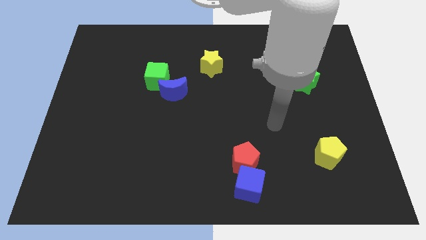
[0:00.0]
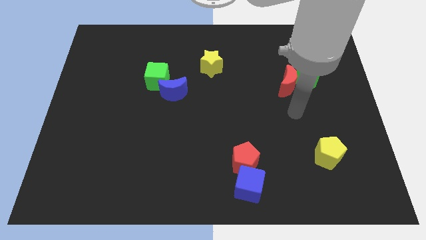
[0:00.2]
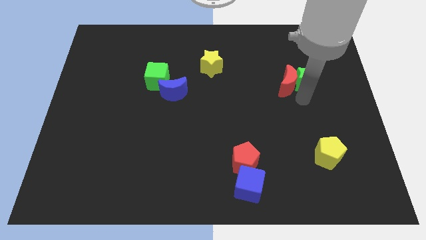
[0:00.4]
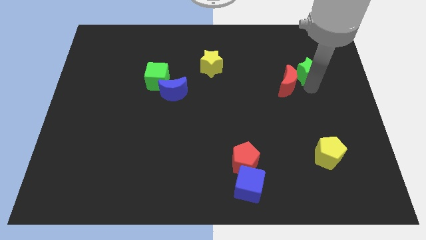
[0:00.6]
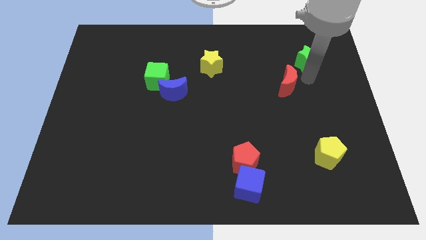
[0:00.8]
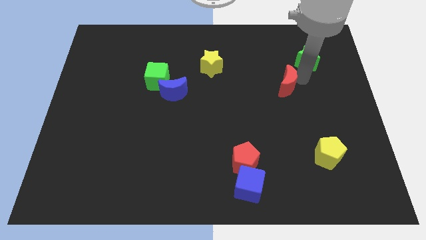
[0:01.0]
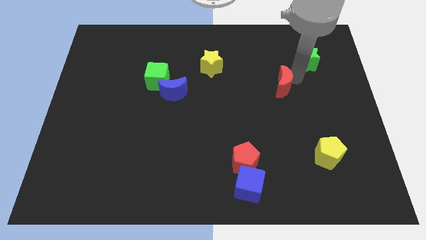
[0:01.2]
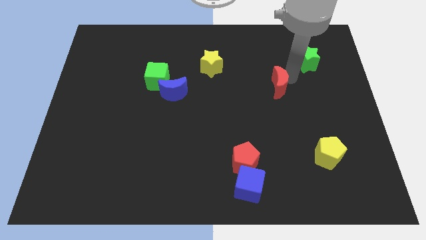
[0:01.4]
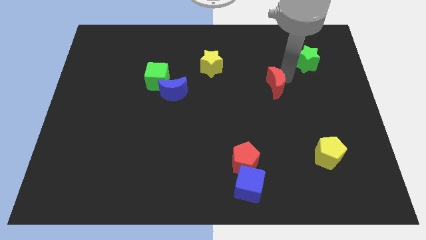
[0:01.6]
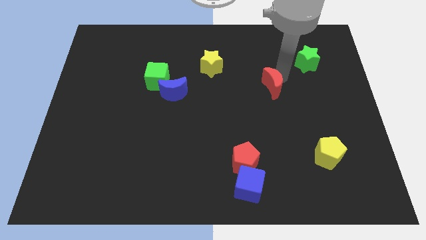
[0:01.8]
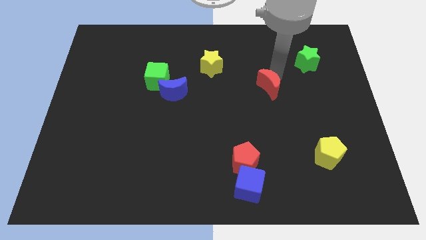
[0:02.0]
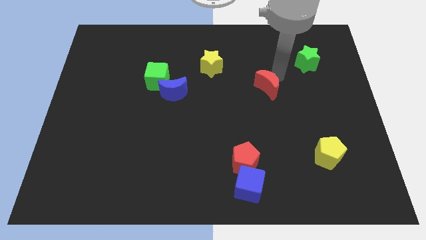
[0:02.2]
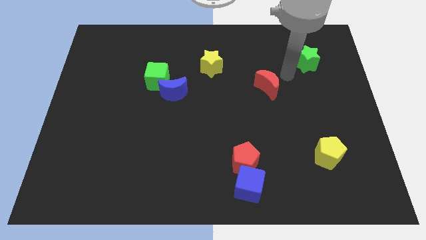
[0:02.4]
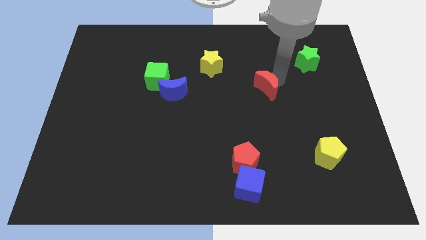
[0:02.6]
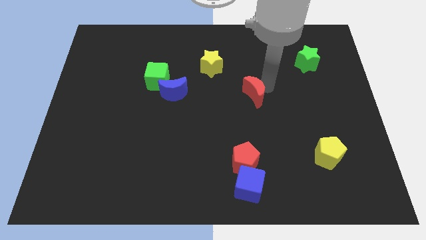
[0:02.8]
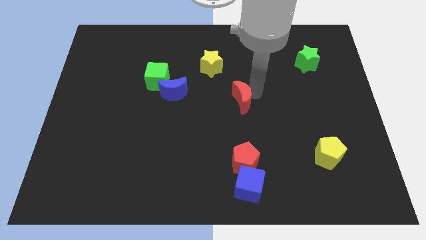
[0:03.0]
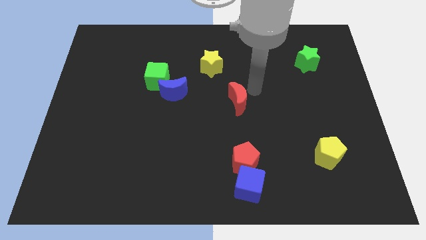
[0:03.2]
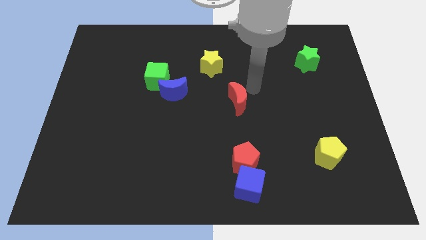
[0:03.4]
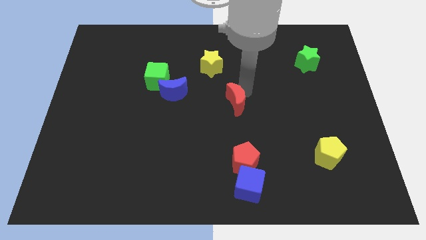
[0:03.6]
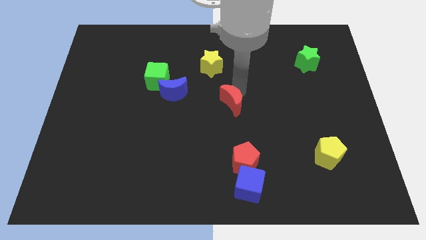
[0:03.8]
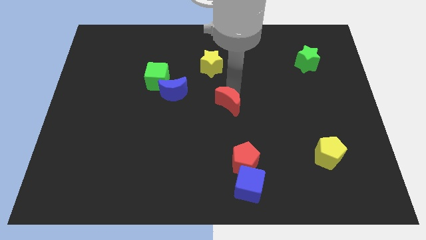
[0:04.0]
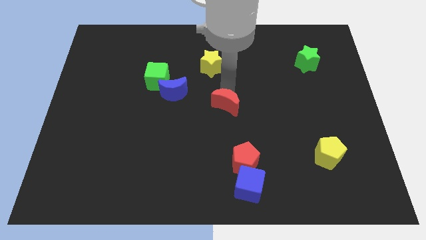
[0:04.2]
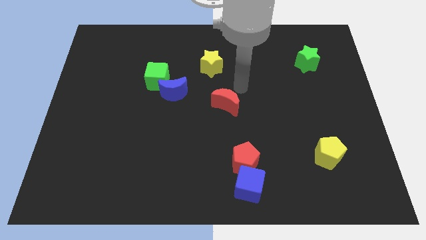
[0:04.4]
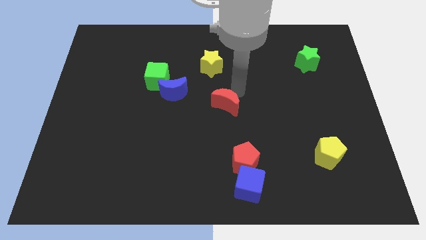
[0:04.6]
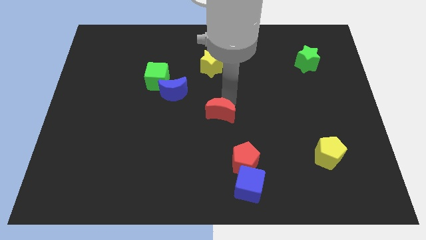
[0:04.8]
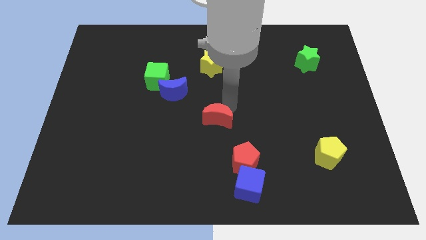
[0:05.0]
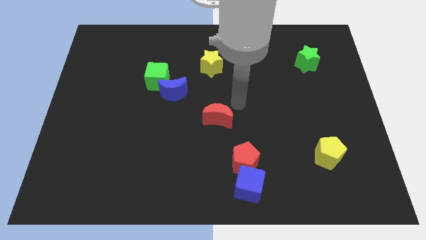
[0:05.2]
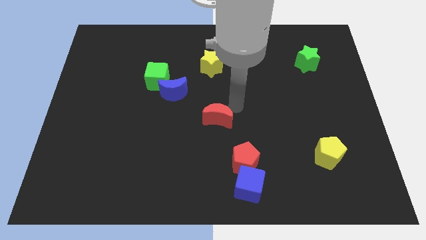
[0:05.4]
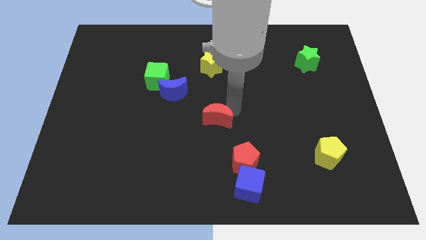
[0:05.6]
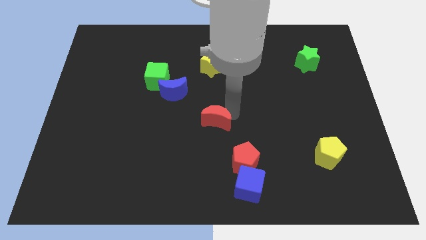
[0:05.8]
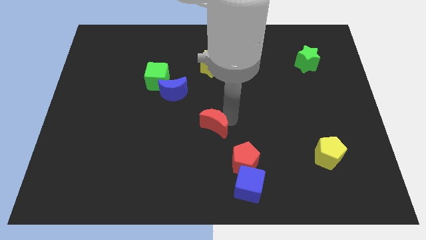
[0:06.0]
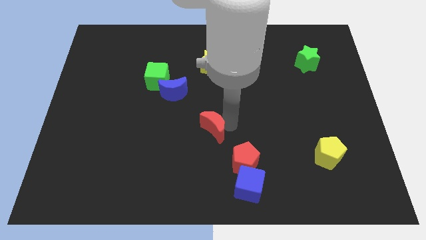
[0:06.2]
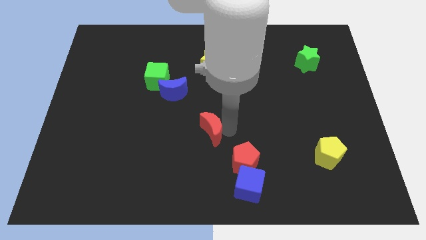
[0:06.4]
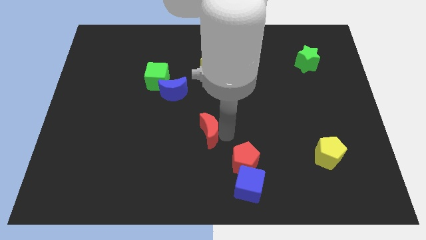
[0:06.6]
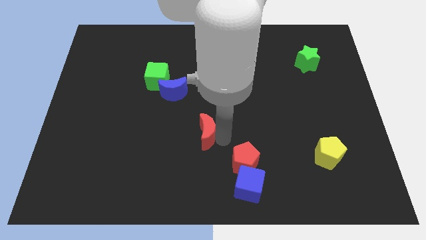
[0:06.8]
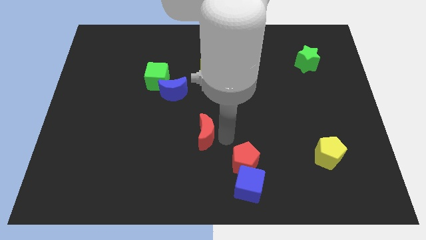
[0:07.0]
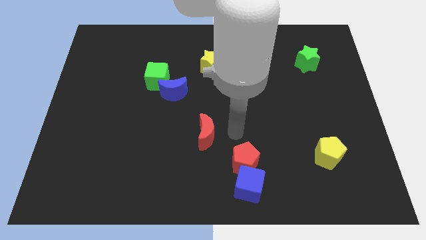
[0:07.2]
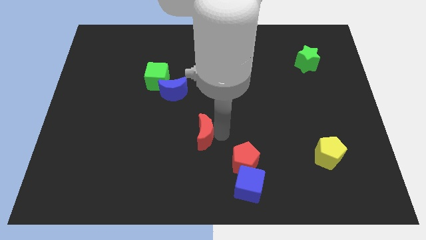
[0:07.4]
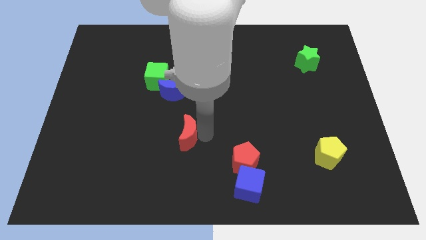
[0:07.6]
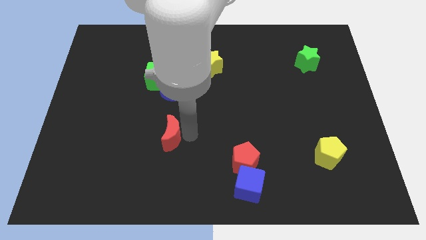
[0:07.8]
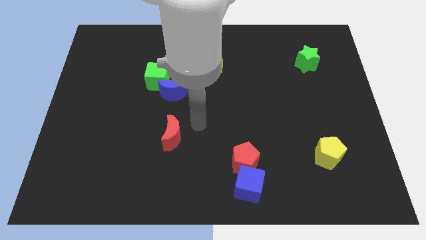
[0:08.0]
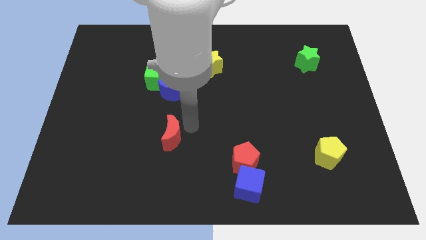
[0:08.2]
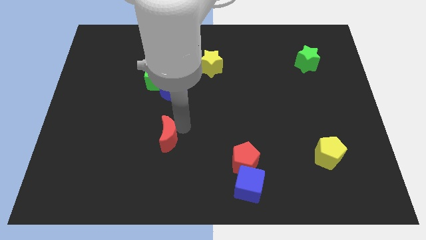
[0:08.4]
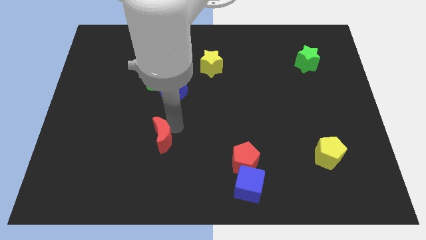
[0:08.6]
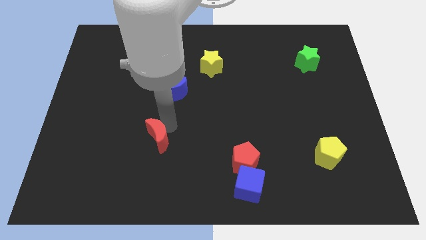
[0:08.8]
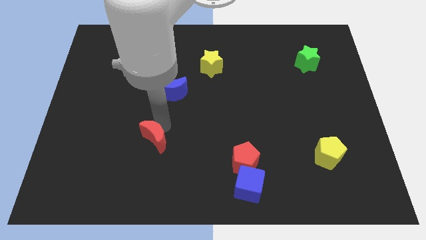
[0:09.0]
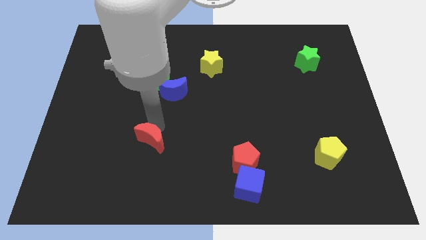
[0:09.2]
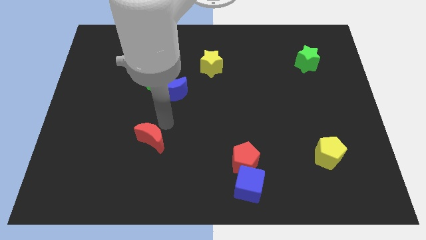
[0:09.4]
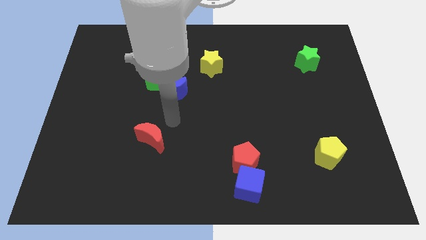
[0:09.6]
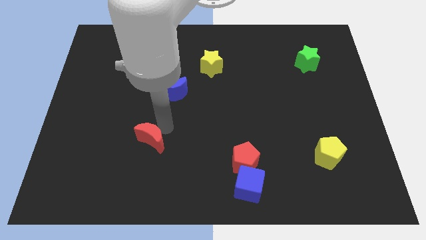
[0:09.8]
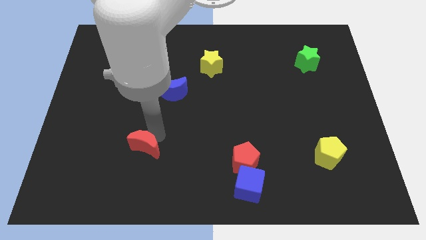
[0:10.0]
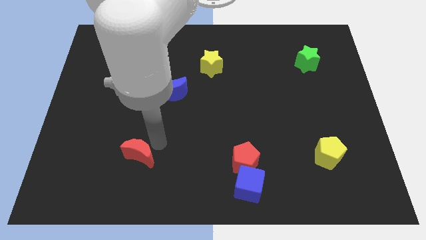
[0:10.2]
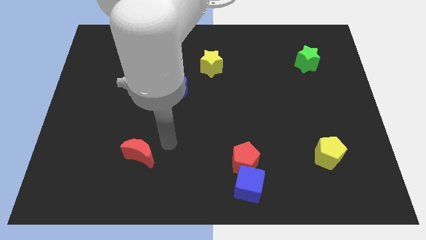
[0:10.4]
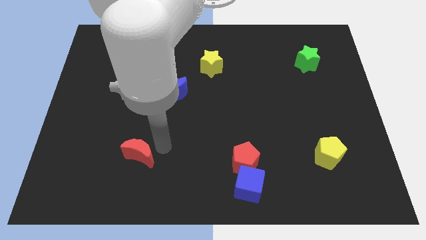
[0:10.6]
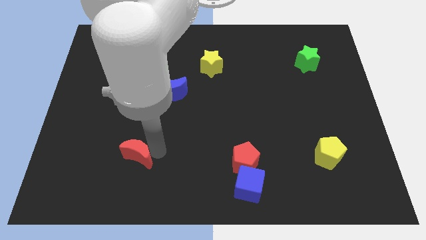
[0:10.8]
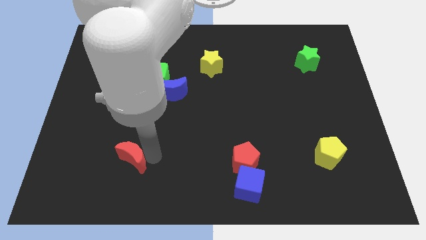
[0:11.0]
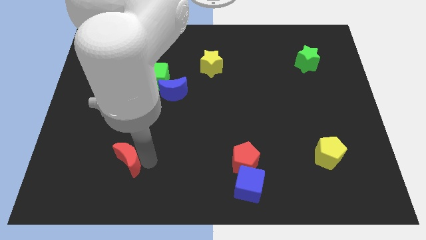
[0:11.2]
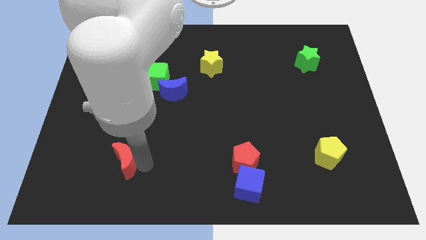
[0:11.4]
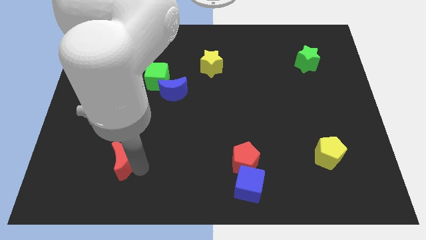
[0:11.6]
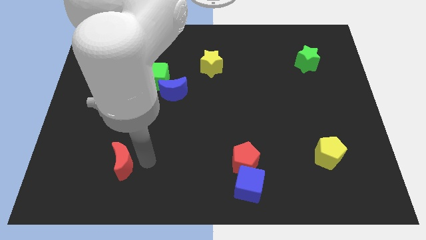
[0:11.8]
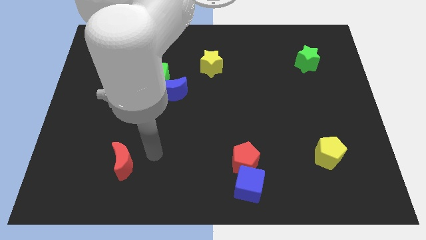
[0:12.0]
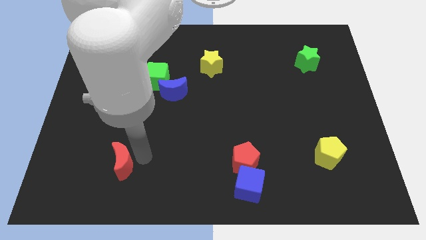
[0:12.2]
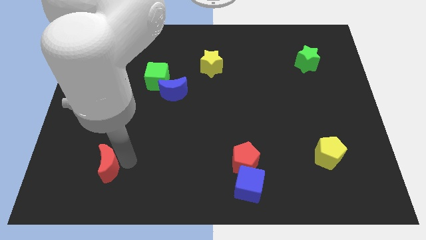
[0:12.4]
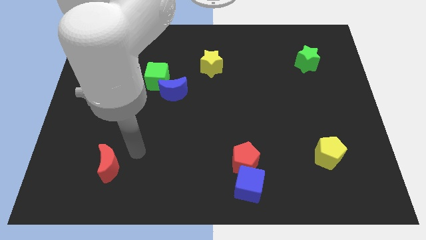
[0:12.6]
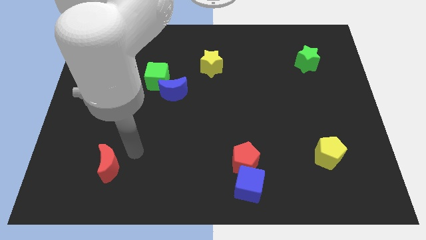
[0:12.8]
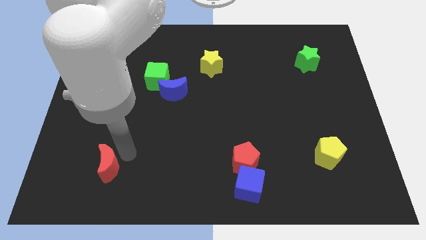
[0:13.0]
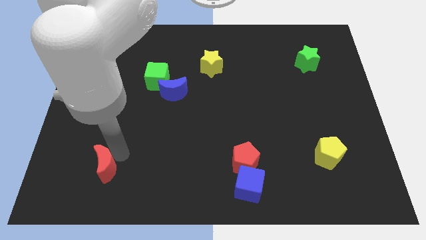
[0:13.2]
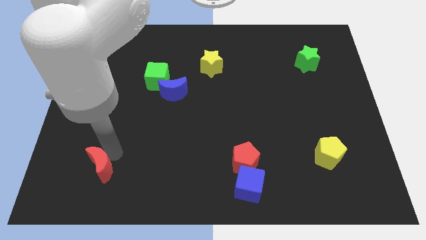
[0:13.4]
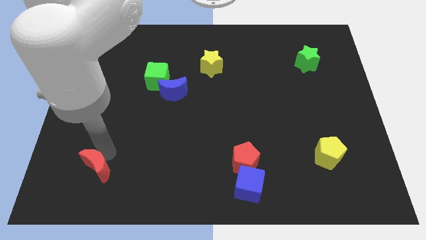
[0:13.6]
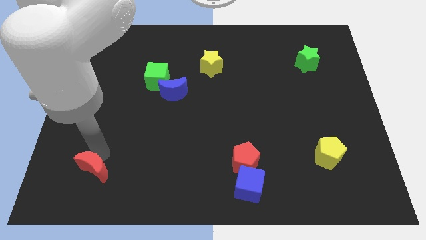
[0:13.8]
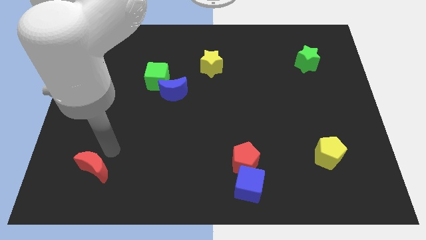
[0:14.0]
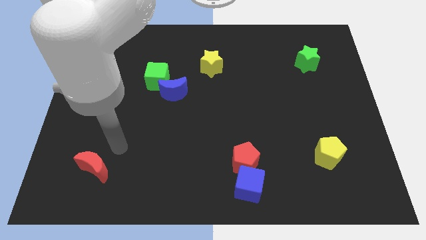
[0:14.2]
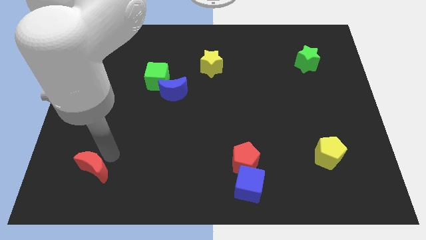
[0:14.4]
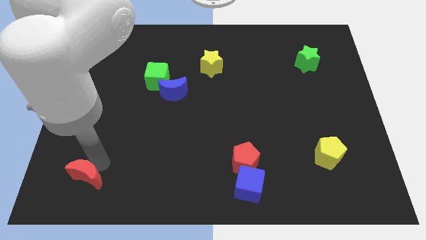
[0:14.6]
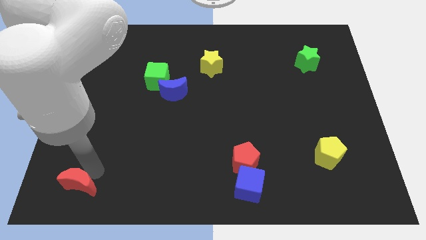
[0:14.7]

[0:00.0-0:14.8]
slide the red moon to the bottom left
